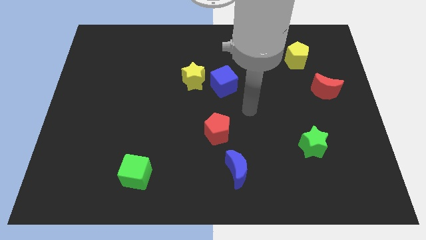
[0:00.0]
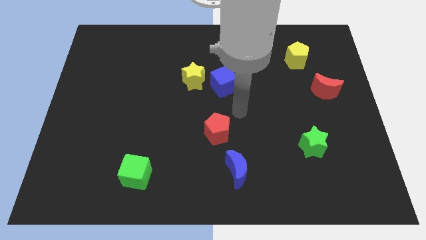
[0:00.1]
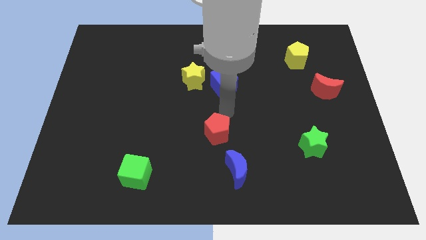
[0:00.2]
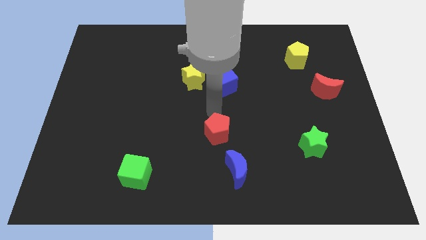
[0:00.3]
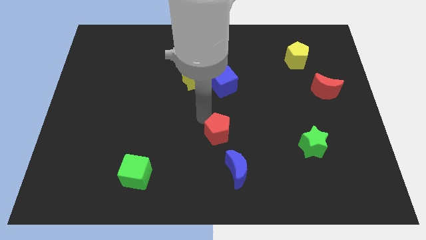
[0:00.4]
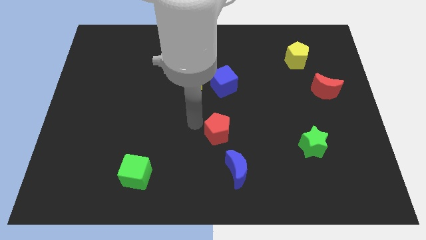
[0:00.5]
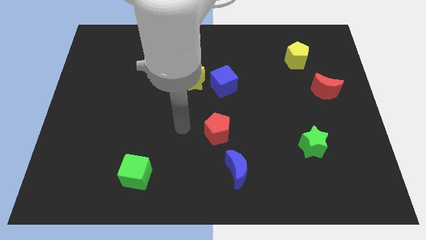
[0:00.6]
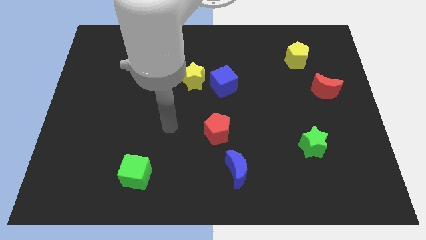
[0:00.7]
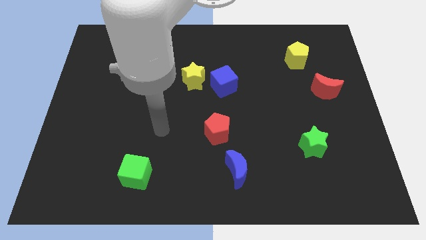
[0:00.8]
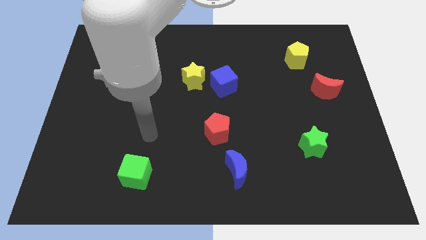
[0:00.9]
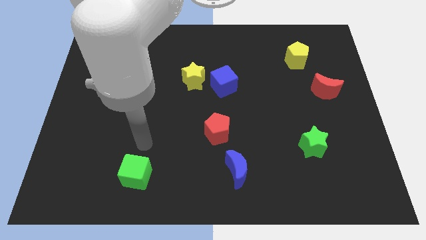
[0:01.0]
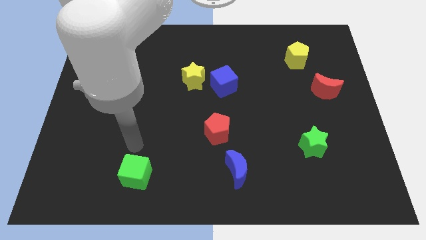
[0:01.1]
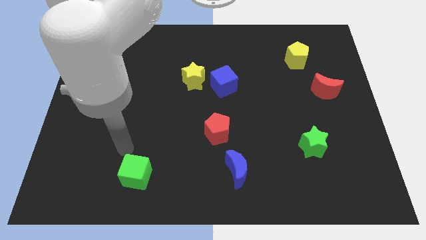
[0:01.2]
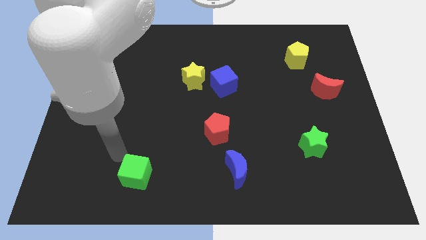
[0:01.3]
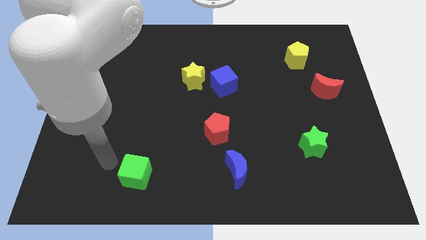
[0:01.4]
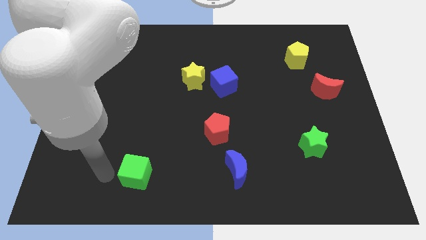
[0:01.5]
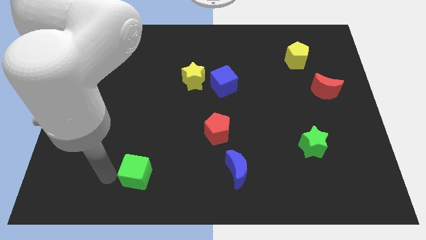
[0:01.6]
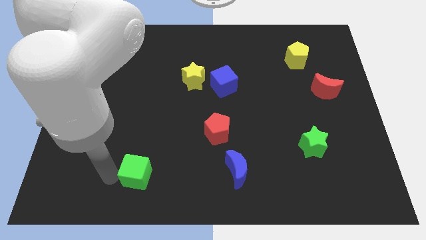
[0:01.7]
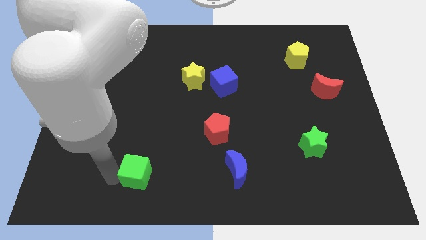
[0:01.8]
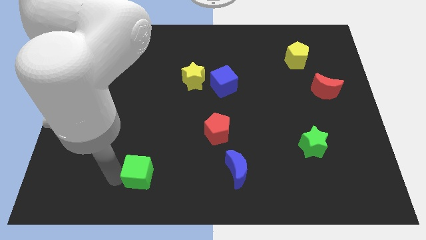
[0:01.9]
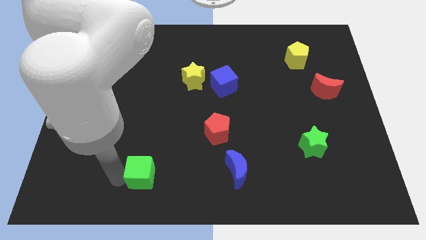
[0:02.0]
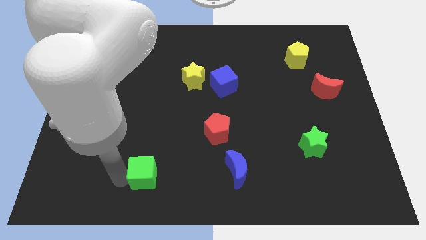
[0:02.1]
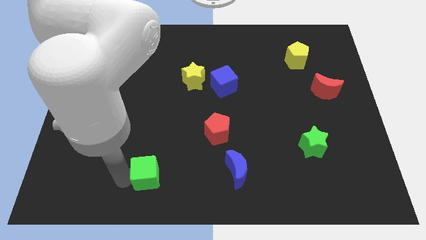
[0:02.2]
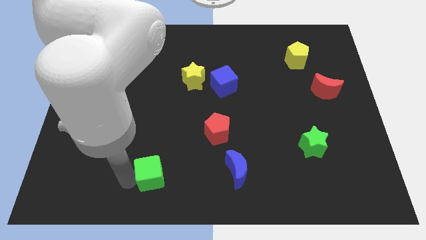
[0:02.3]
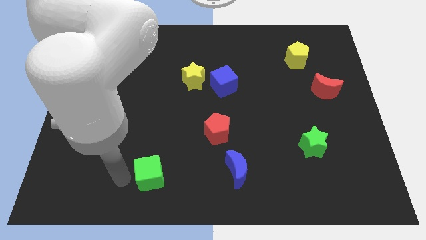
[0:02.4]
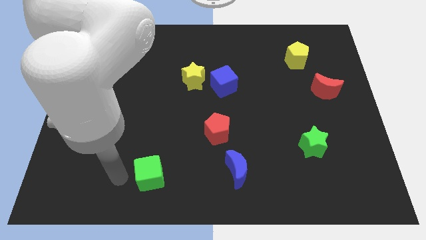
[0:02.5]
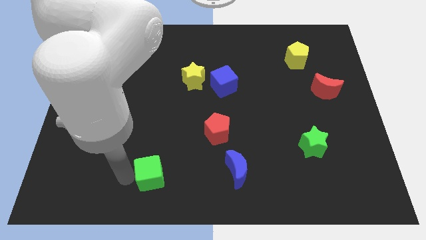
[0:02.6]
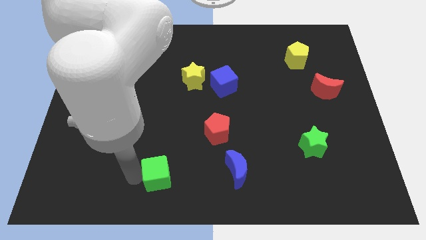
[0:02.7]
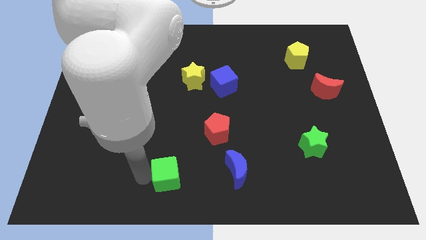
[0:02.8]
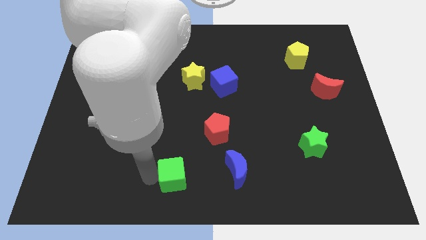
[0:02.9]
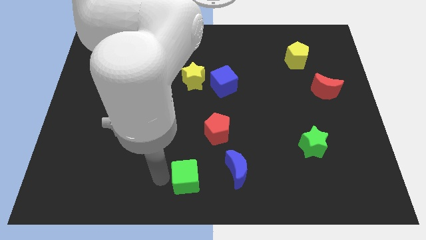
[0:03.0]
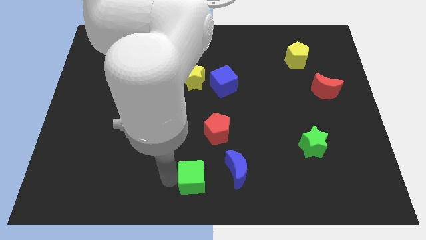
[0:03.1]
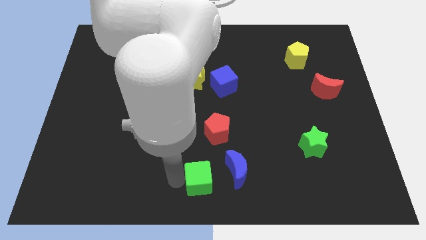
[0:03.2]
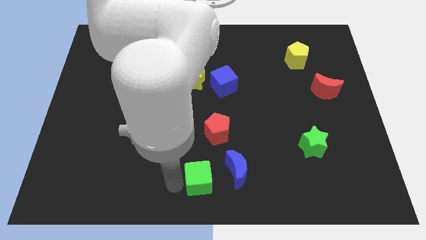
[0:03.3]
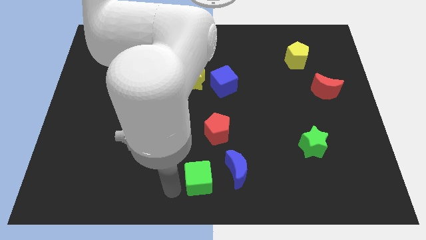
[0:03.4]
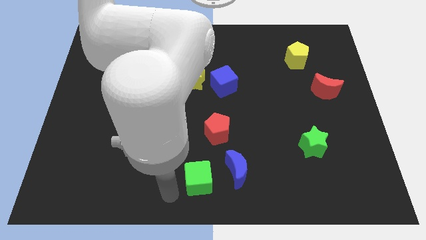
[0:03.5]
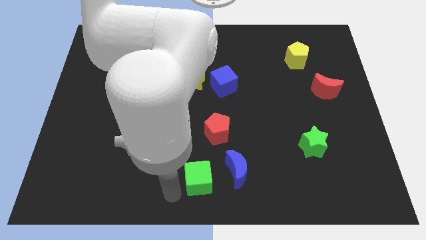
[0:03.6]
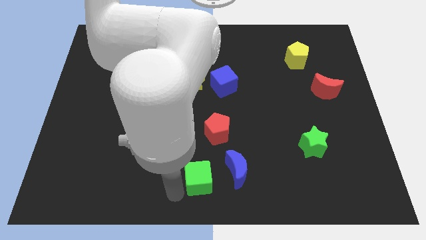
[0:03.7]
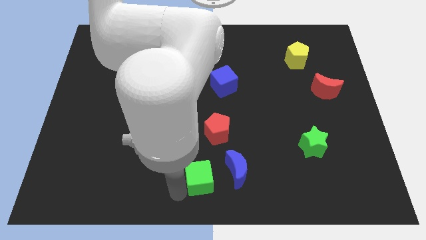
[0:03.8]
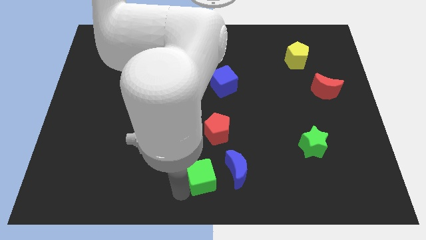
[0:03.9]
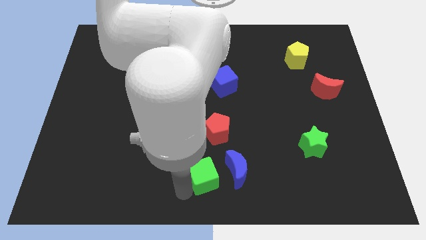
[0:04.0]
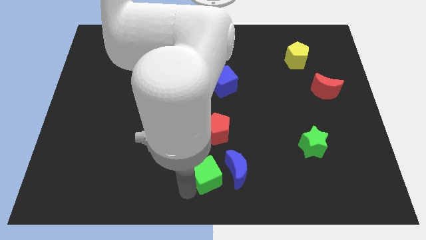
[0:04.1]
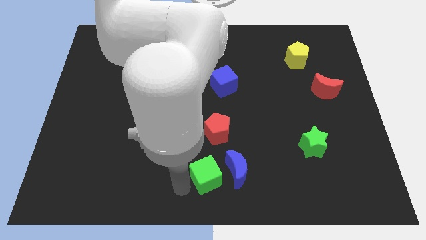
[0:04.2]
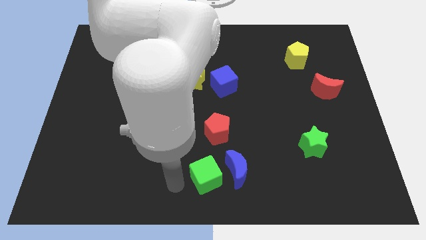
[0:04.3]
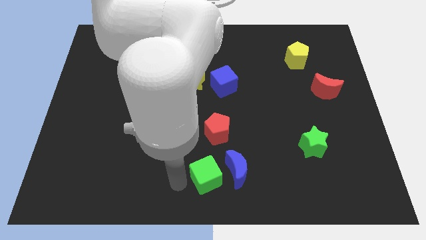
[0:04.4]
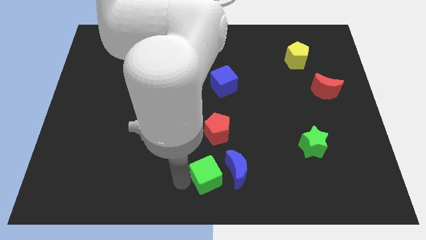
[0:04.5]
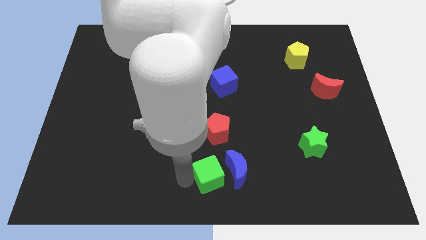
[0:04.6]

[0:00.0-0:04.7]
put the green cube next to the blue moon

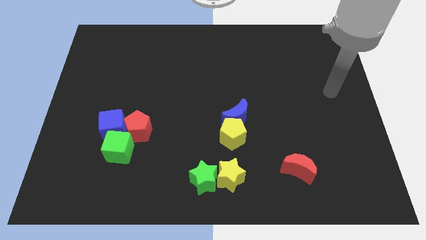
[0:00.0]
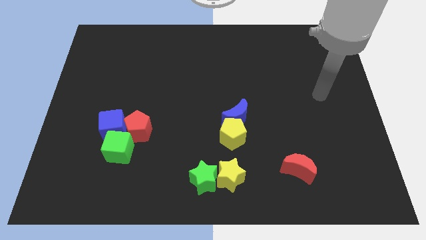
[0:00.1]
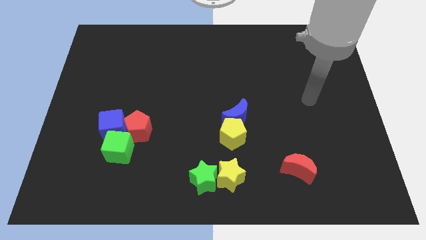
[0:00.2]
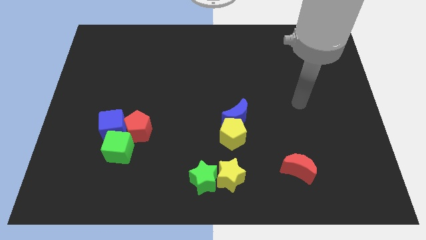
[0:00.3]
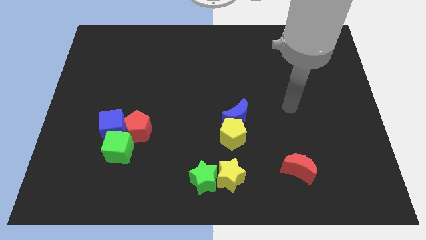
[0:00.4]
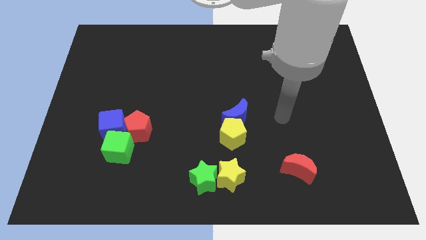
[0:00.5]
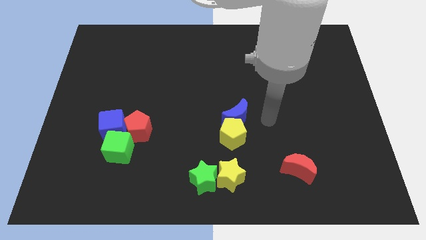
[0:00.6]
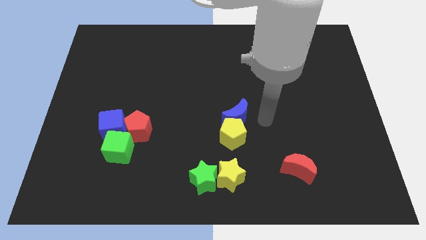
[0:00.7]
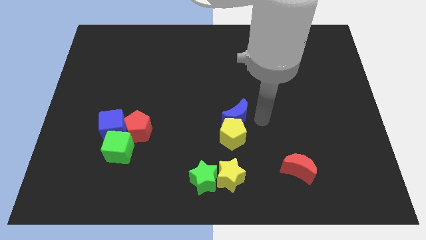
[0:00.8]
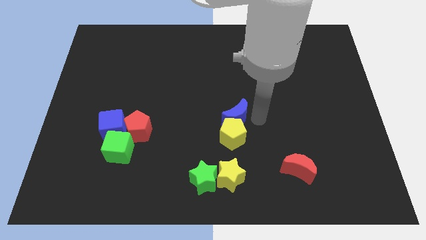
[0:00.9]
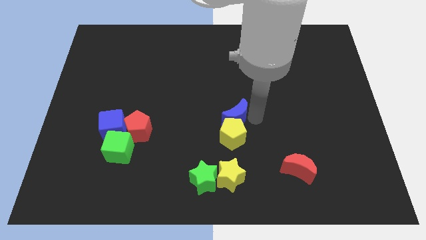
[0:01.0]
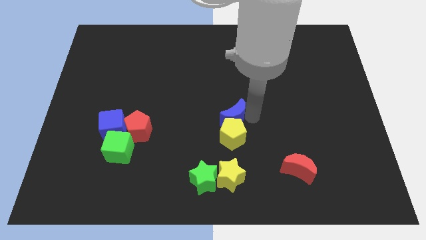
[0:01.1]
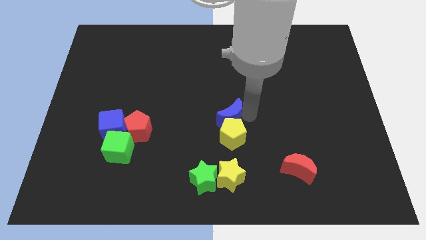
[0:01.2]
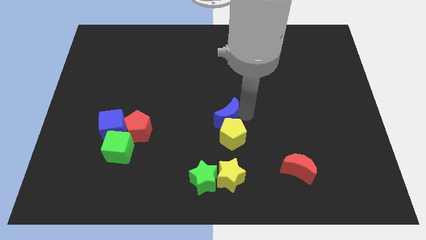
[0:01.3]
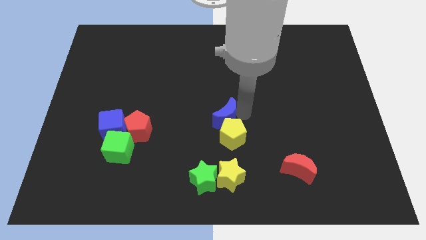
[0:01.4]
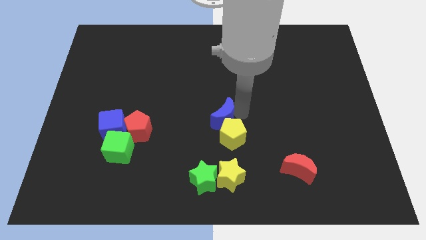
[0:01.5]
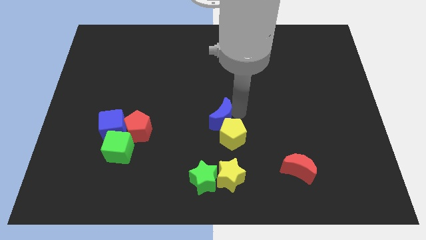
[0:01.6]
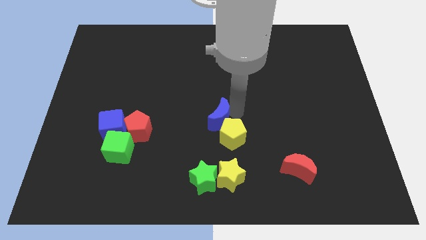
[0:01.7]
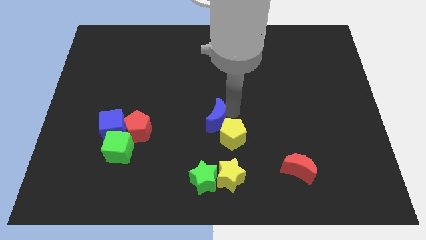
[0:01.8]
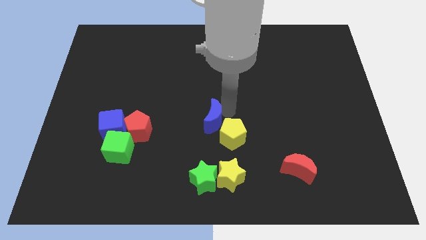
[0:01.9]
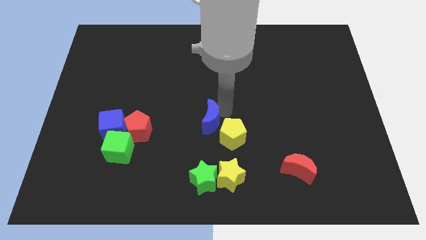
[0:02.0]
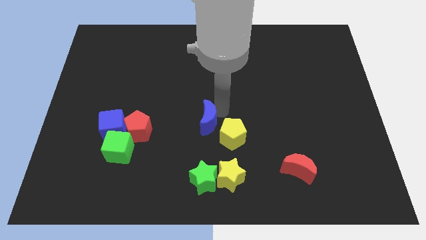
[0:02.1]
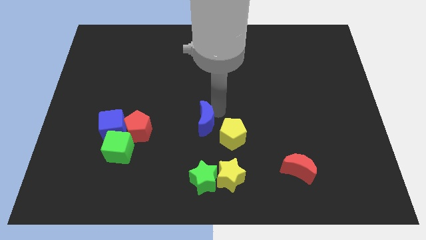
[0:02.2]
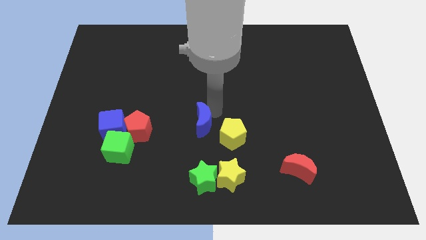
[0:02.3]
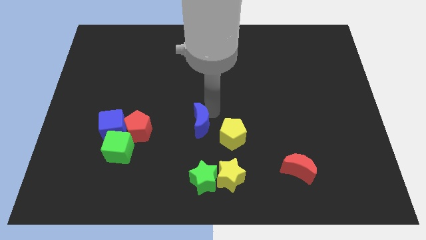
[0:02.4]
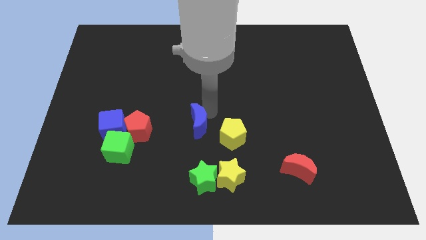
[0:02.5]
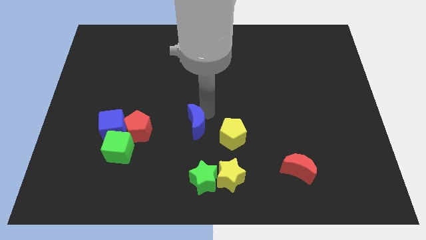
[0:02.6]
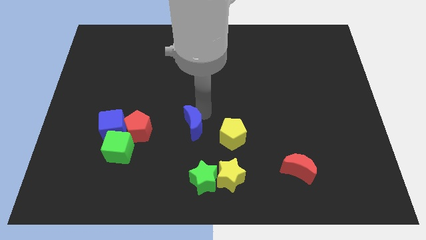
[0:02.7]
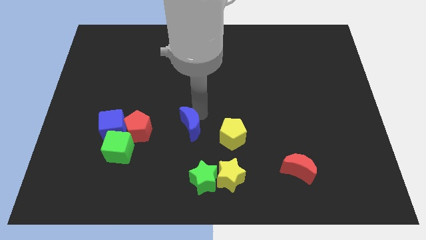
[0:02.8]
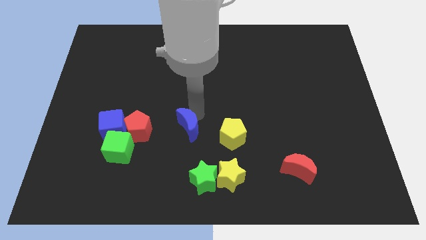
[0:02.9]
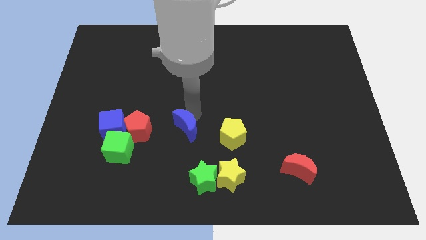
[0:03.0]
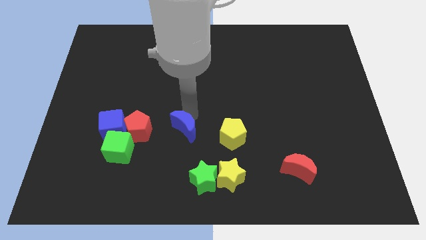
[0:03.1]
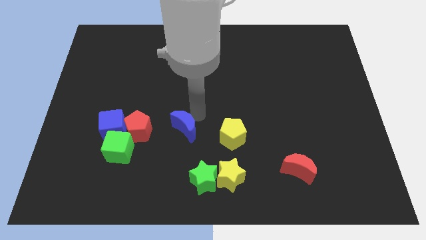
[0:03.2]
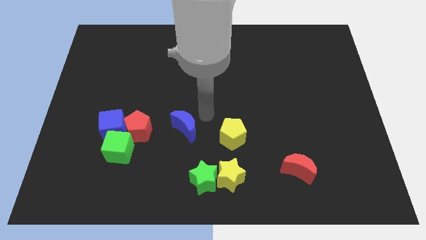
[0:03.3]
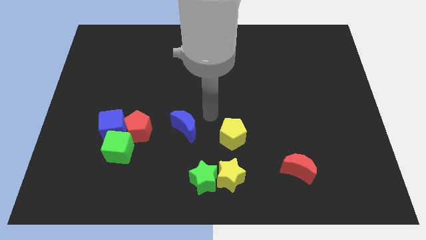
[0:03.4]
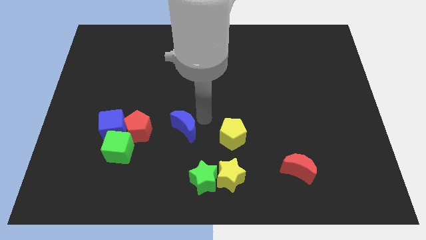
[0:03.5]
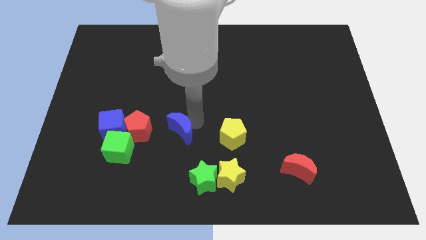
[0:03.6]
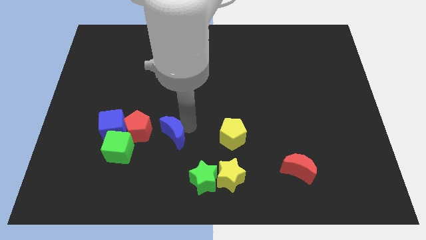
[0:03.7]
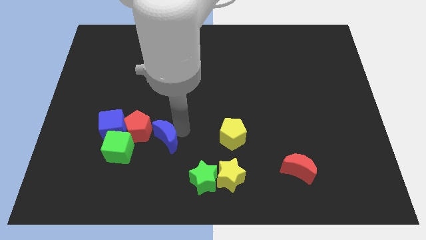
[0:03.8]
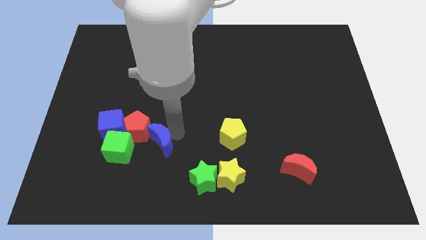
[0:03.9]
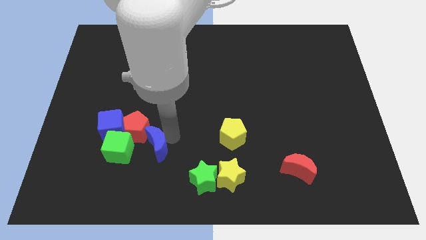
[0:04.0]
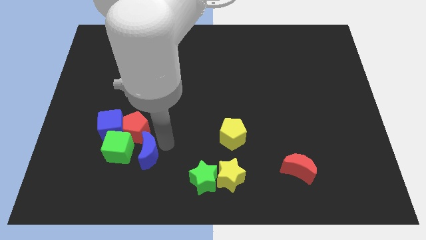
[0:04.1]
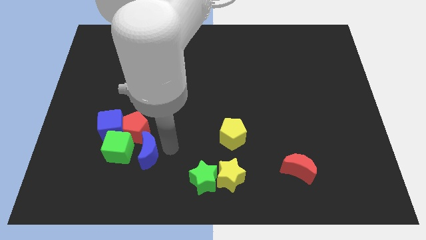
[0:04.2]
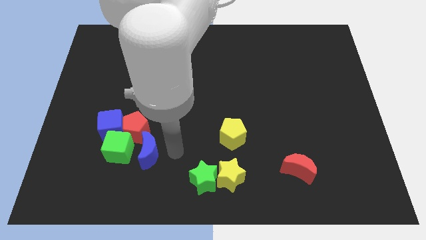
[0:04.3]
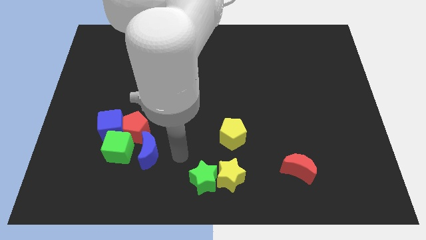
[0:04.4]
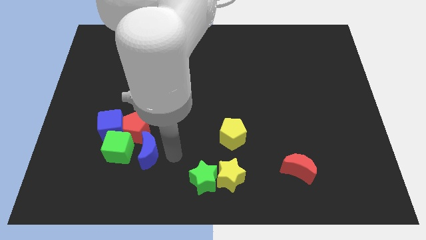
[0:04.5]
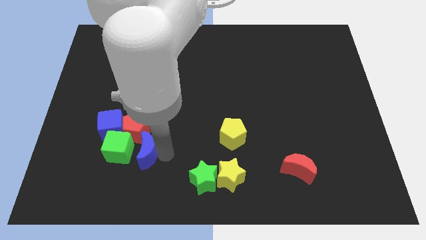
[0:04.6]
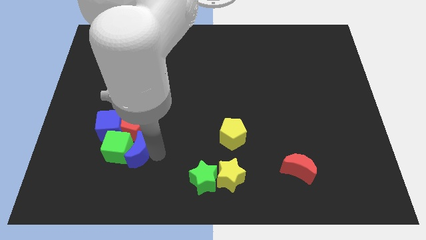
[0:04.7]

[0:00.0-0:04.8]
move the blue moon next to the green cube
